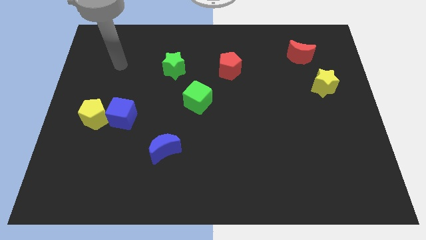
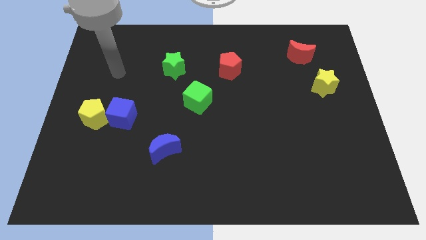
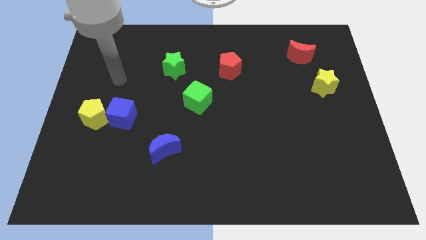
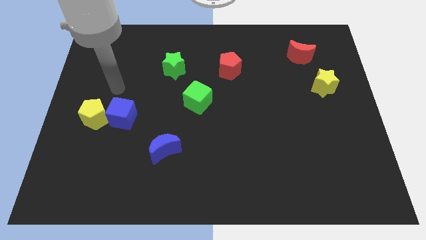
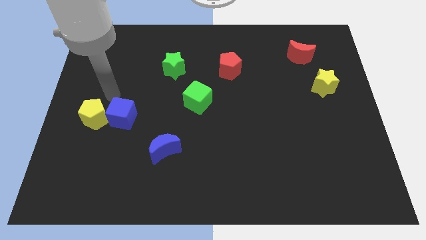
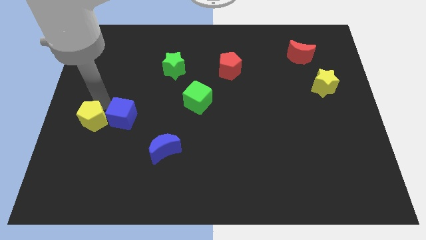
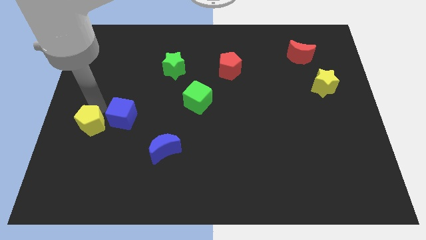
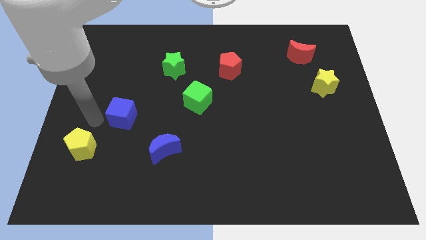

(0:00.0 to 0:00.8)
separate the blue cube from the yellow pentagon

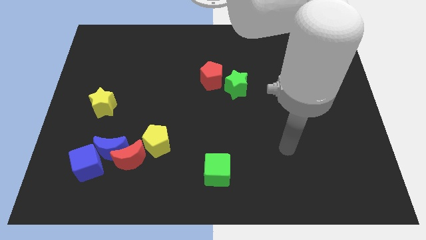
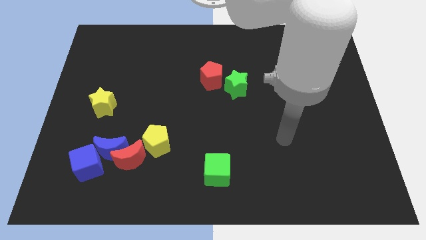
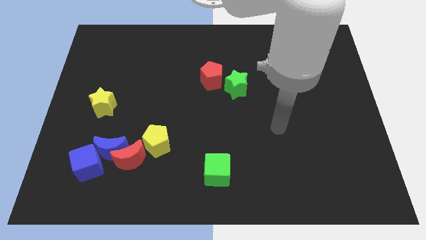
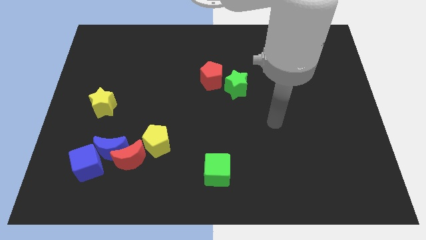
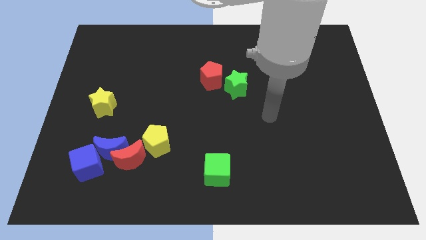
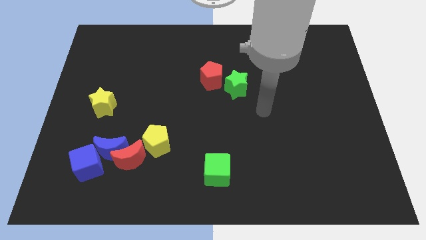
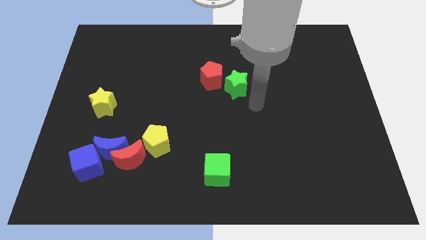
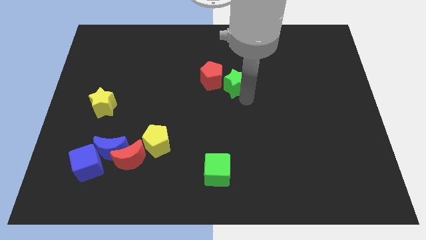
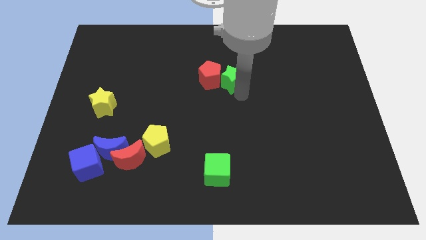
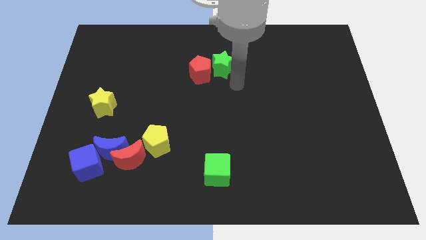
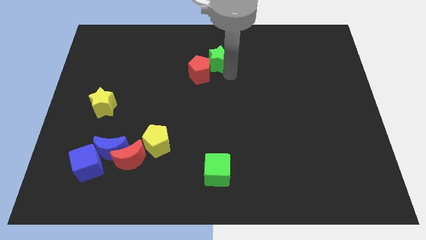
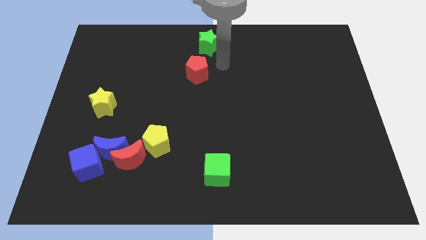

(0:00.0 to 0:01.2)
move the red pentagon away from the green star

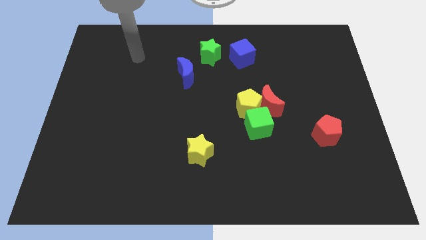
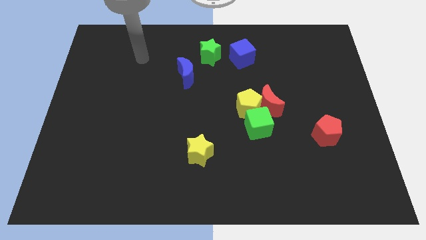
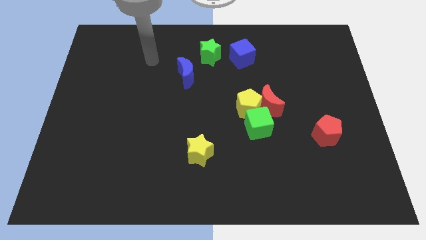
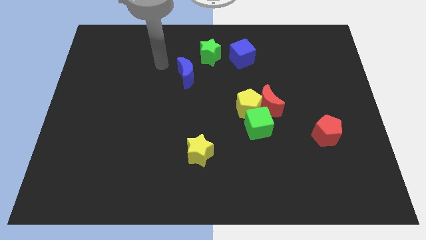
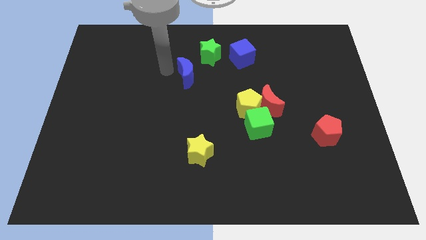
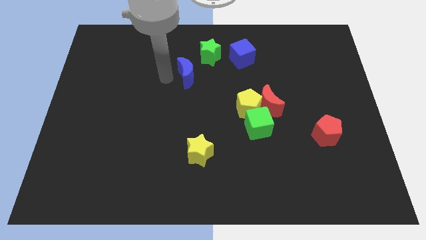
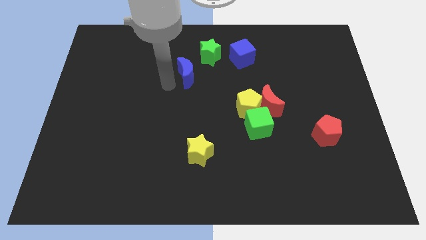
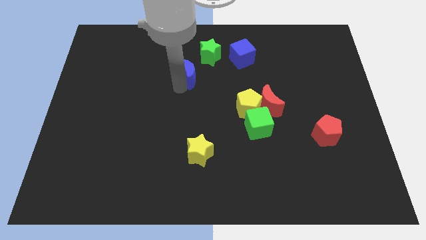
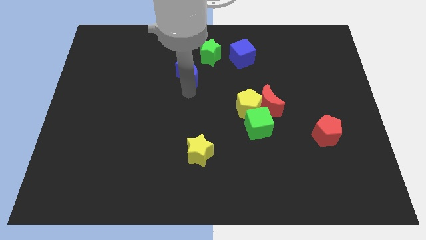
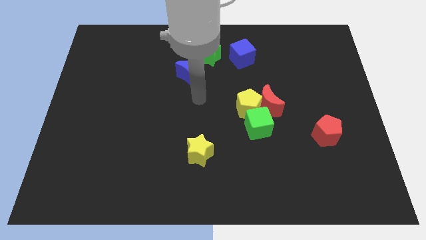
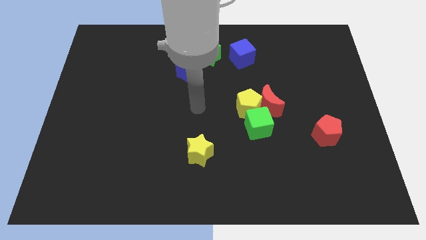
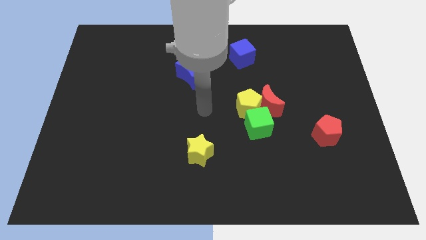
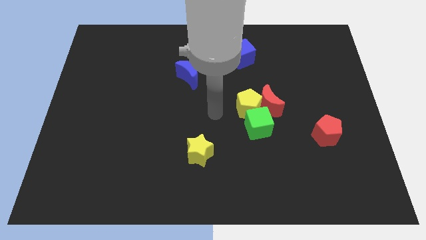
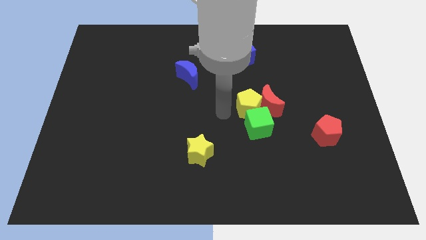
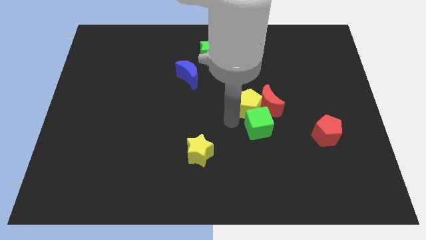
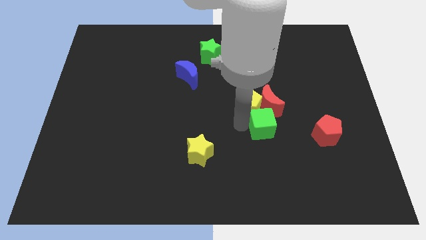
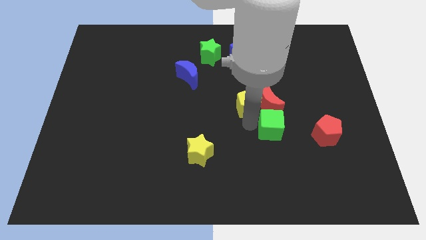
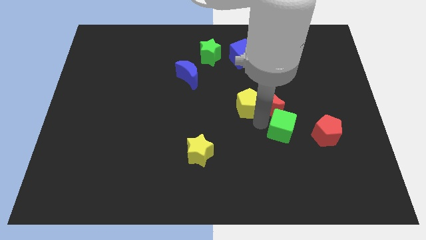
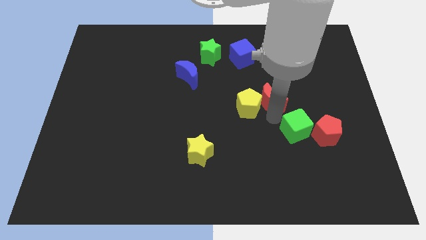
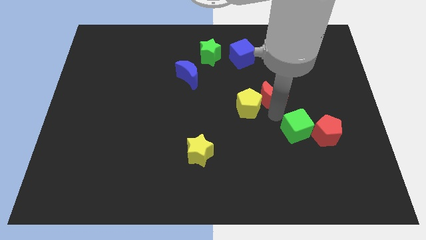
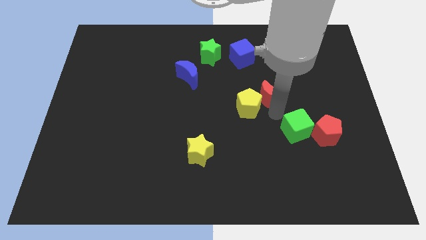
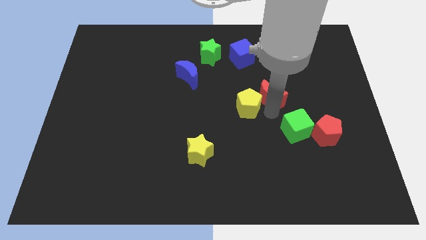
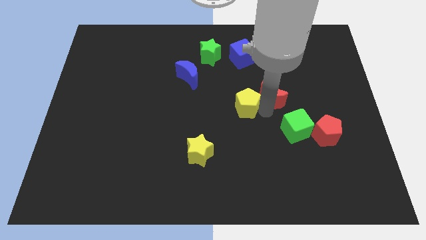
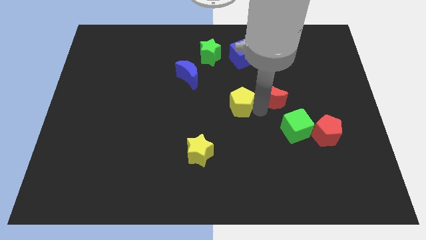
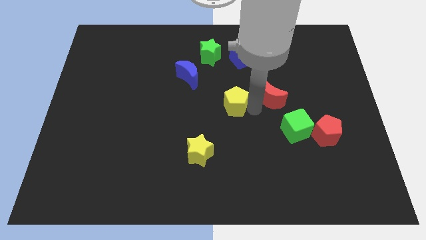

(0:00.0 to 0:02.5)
pull the yellow pentagon apart from the red moon and green cube

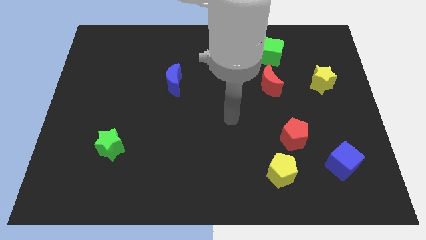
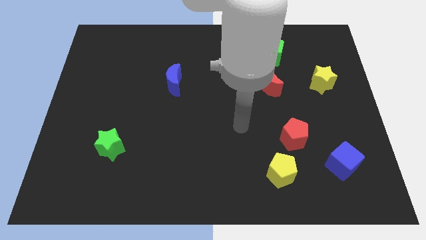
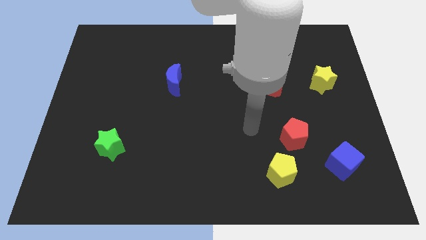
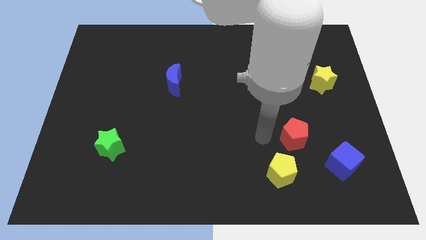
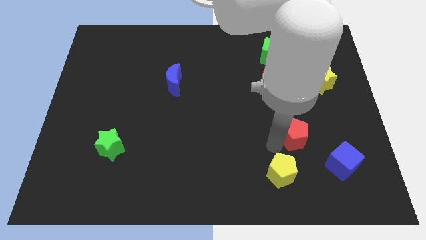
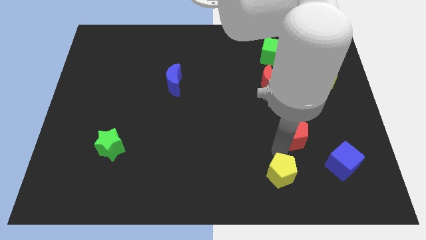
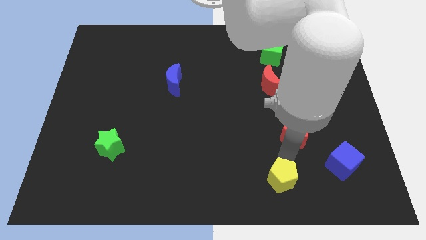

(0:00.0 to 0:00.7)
move the red pentagon away from the yellow pentagon

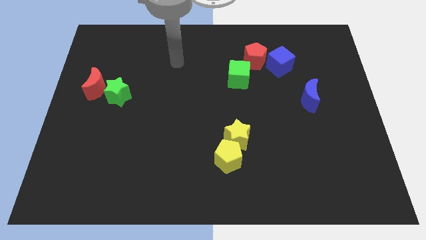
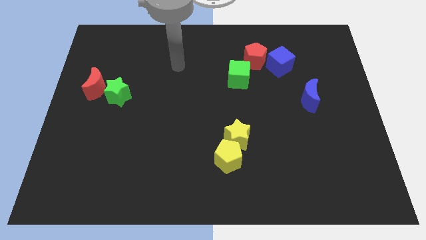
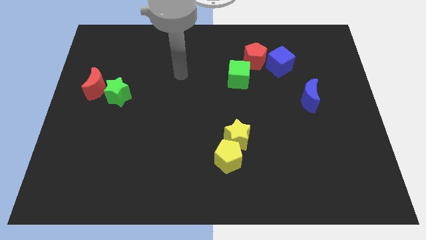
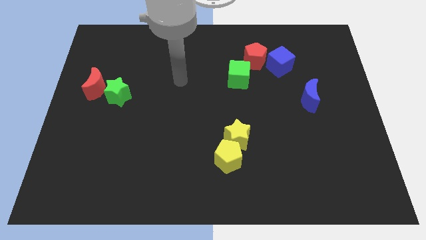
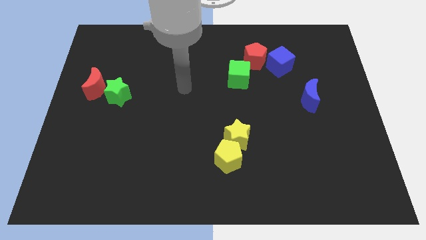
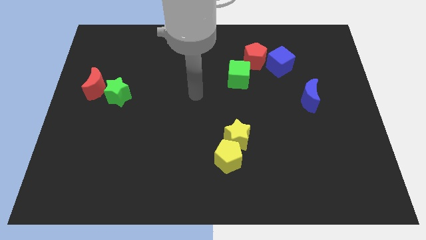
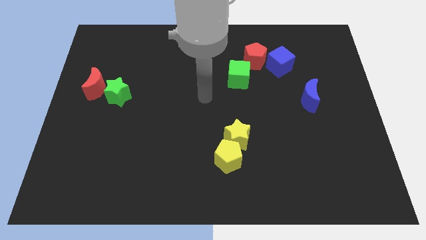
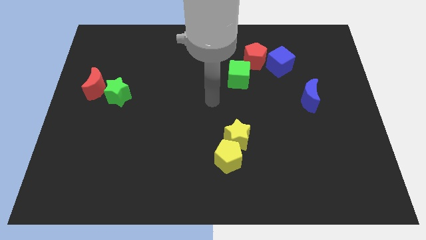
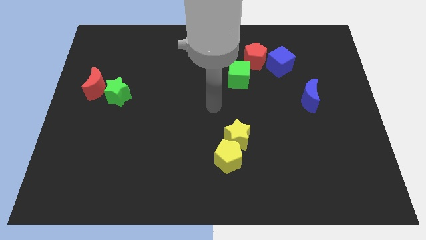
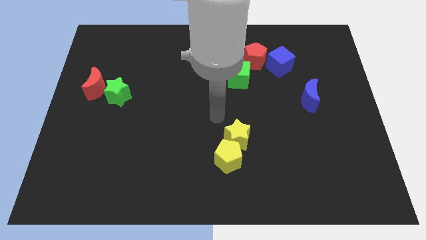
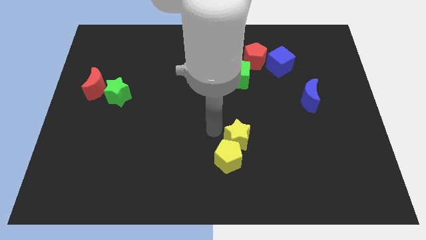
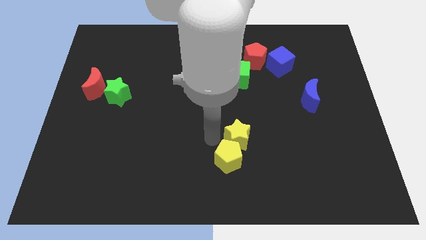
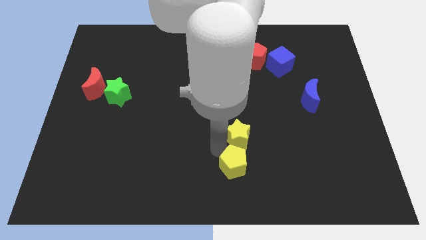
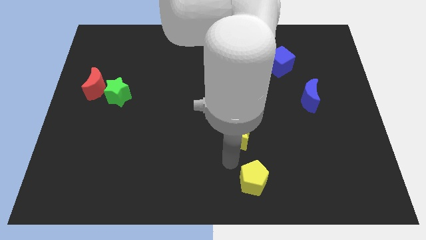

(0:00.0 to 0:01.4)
pull the yellow star apart from the yellow pentagon

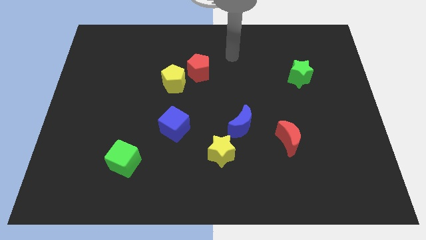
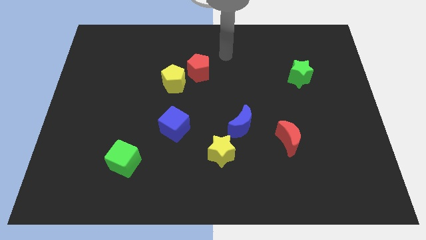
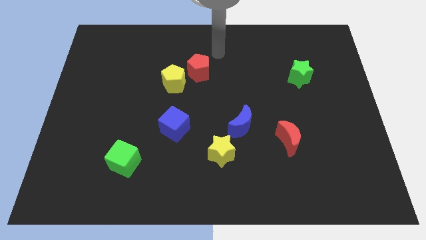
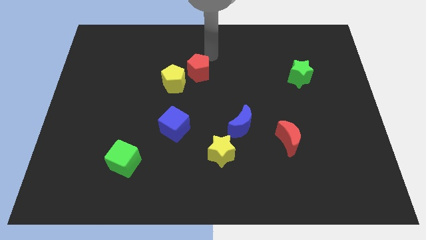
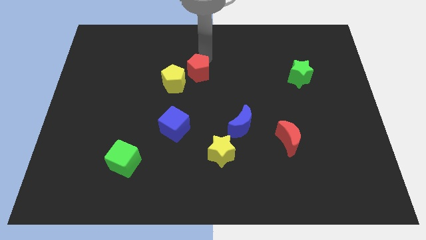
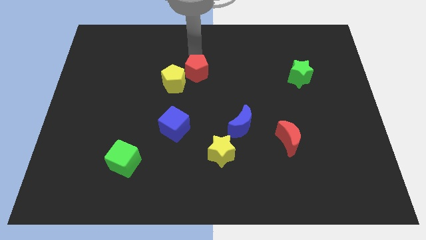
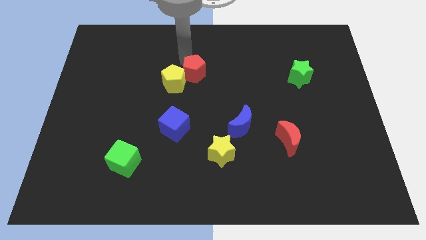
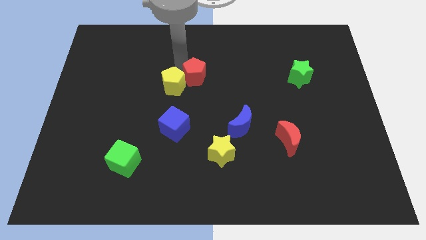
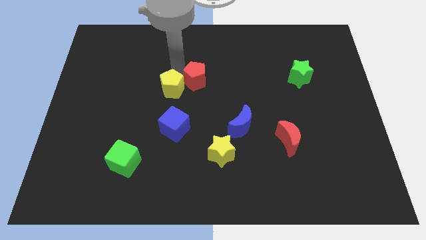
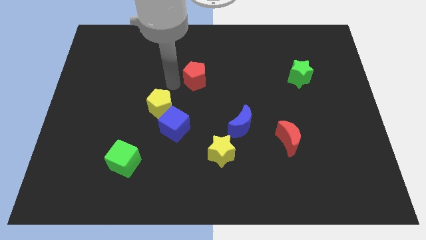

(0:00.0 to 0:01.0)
separate the red pentagon from the yellow pentagon

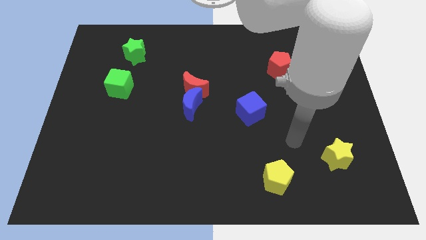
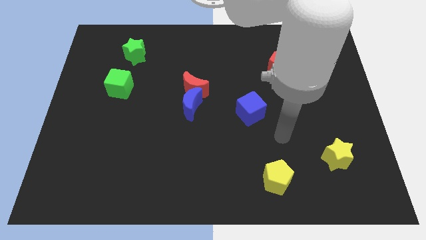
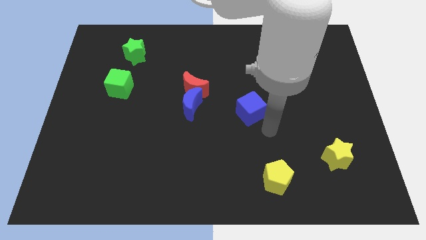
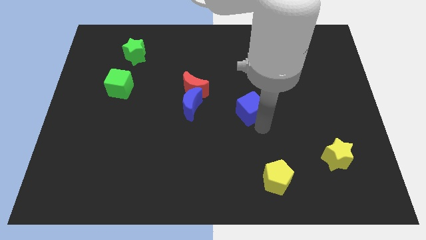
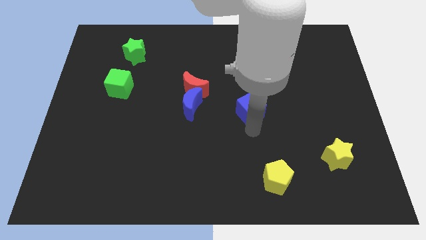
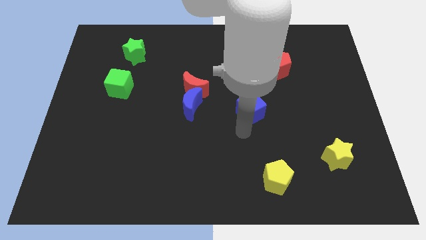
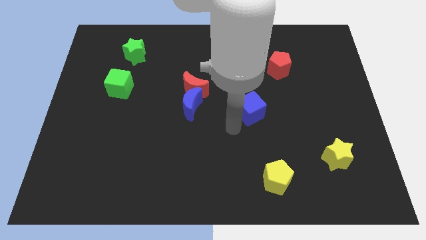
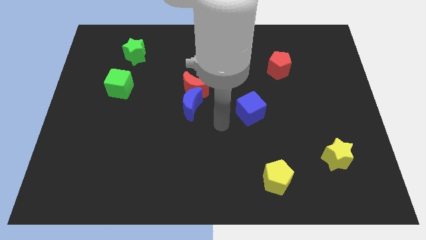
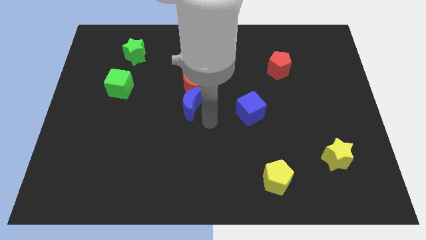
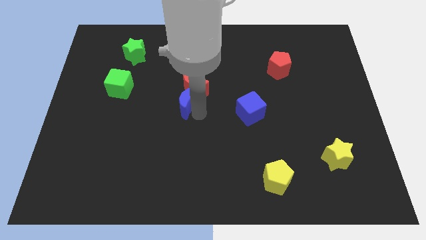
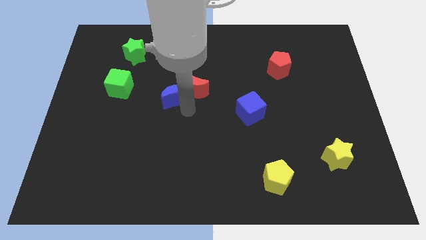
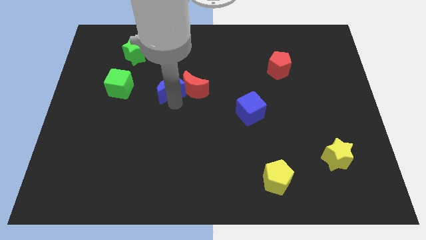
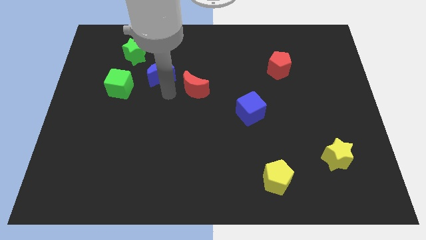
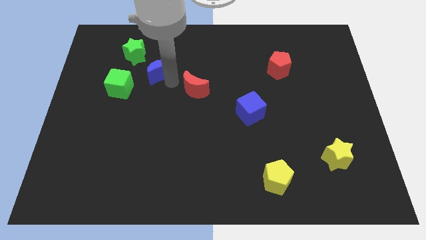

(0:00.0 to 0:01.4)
separate the red moon from the blue moon

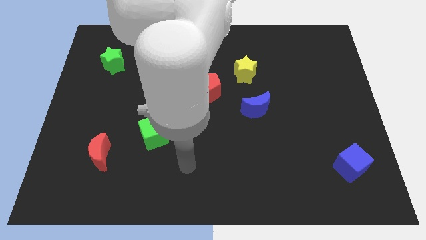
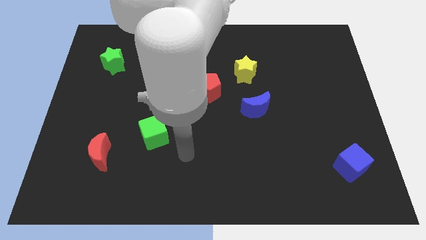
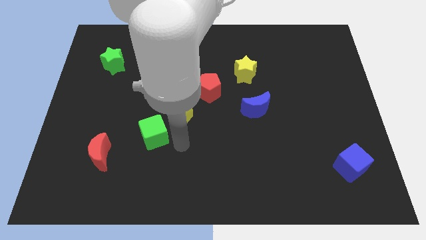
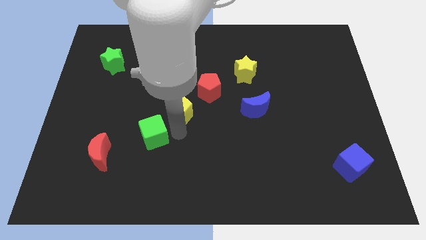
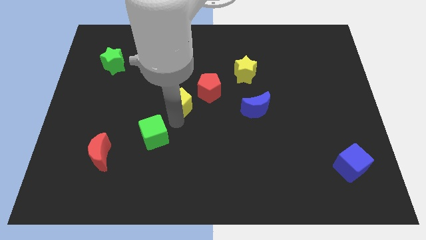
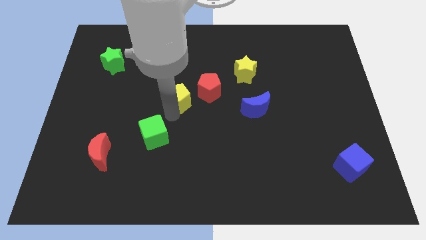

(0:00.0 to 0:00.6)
move the green cube away from the yellow pentagon
